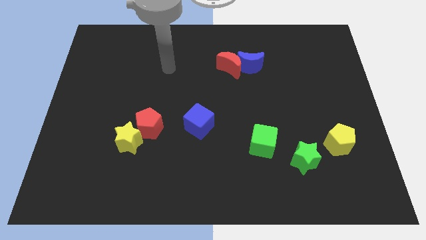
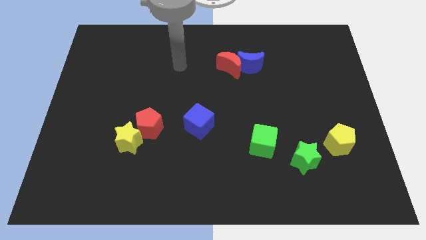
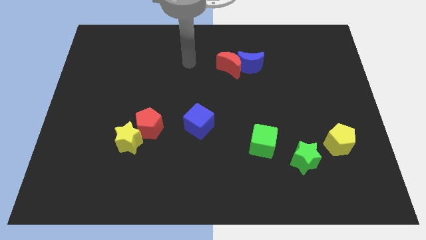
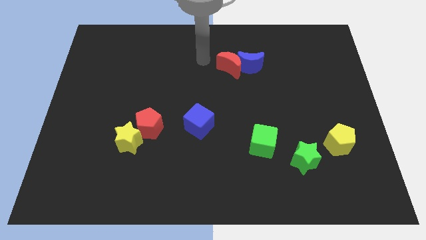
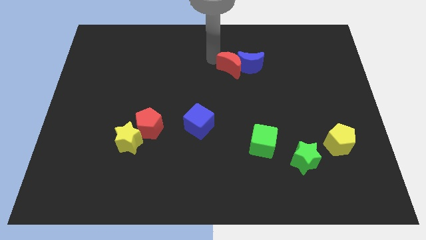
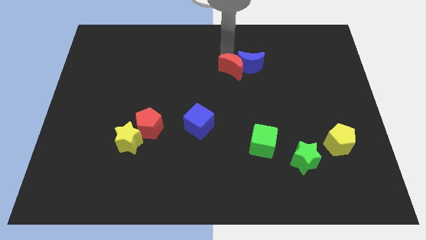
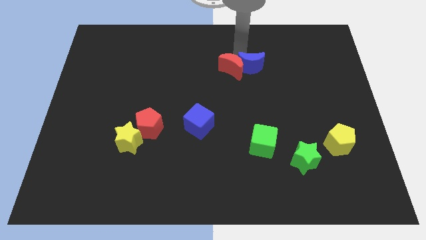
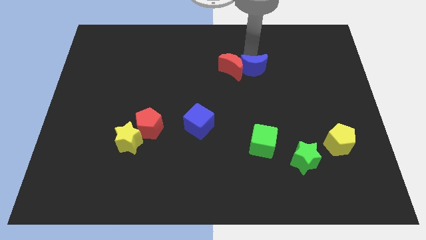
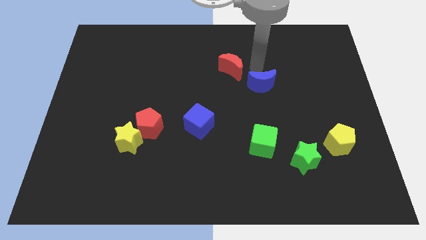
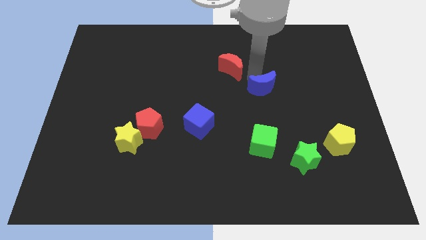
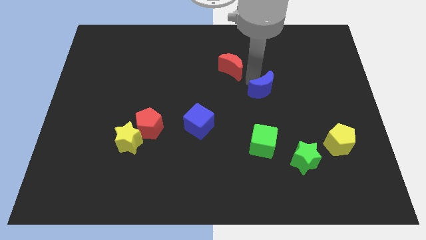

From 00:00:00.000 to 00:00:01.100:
move the red moon away from the blue moon

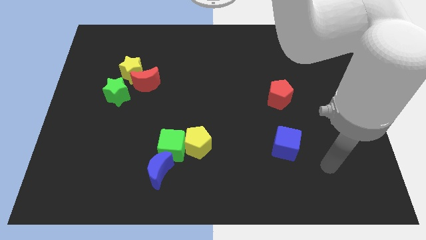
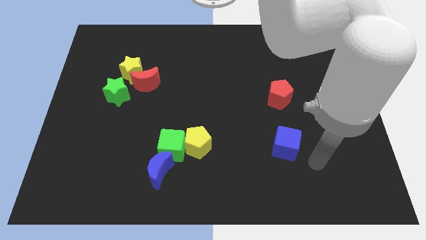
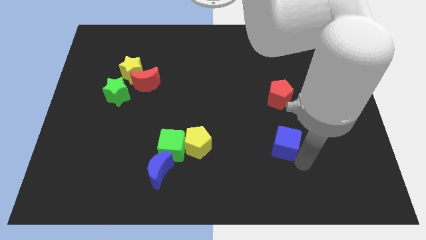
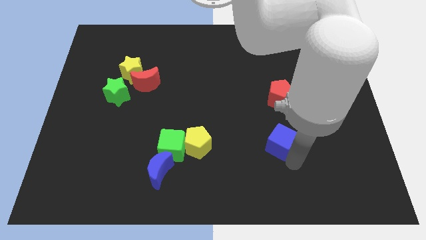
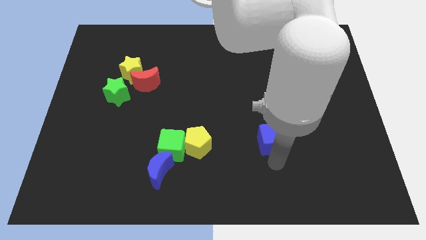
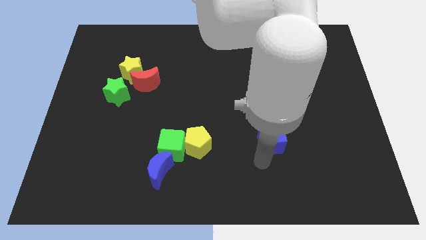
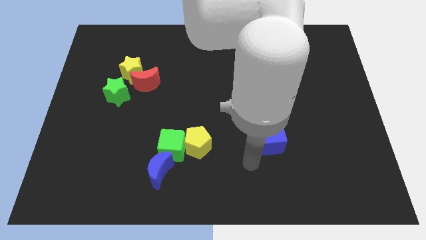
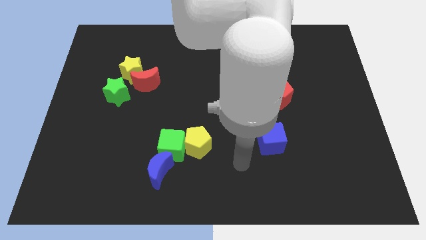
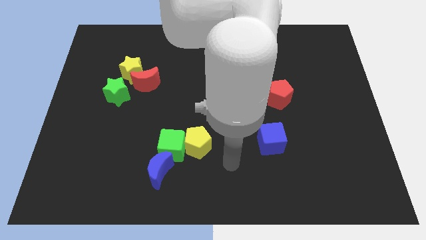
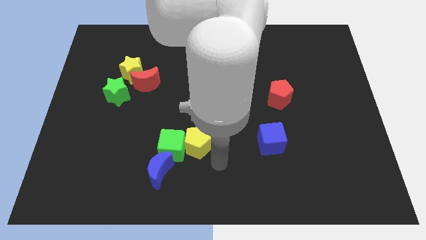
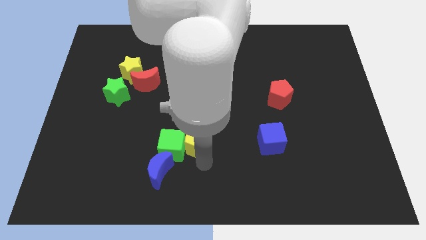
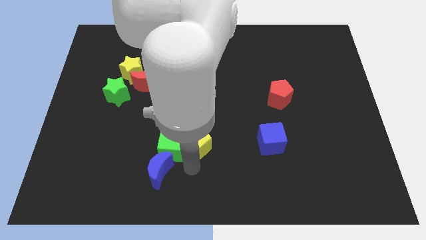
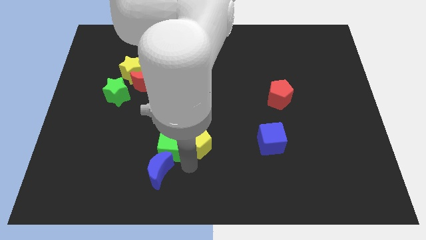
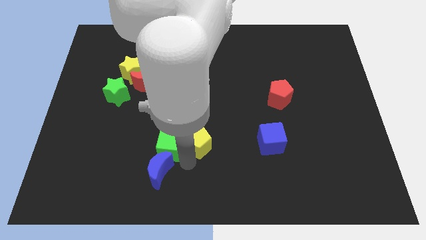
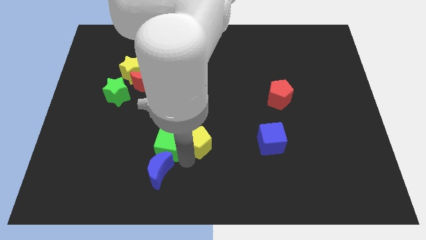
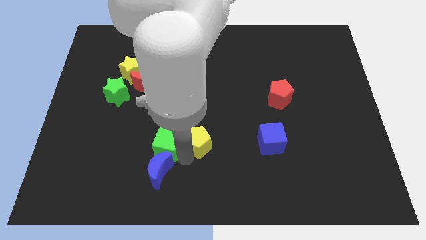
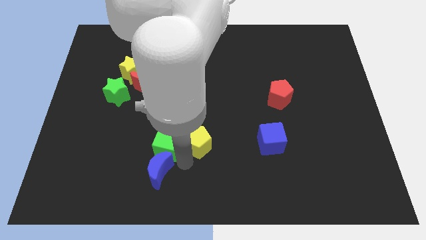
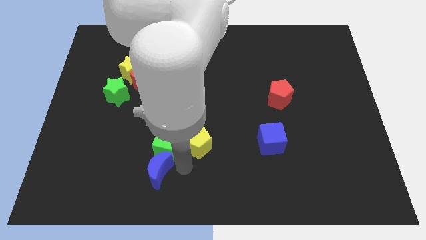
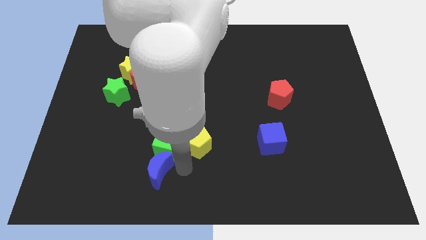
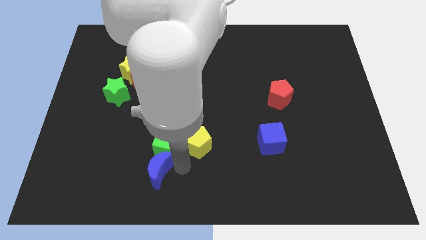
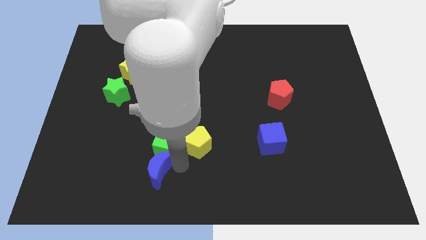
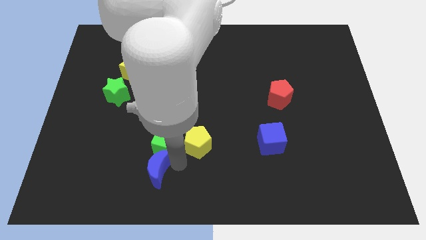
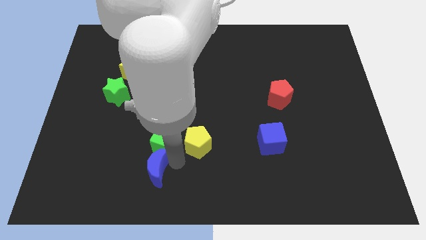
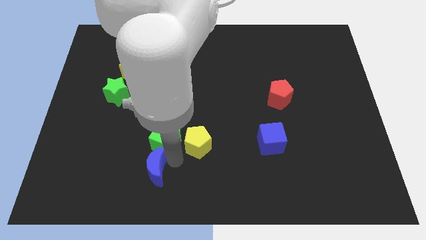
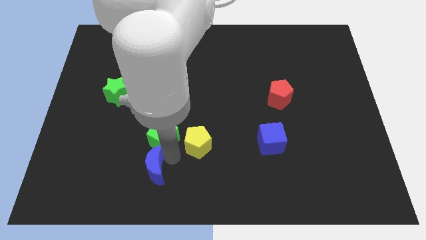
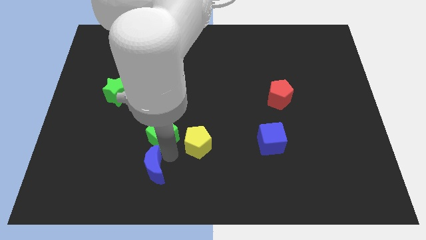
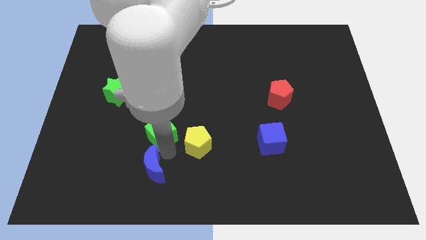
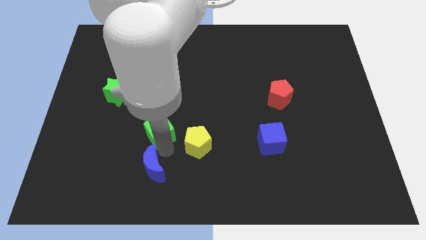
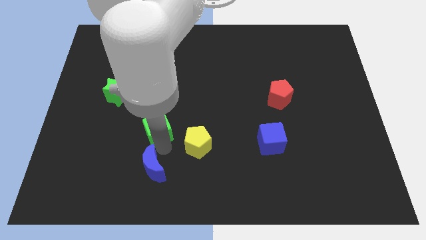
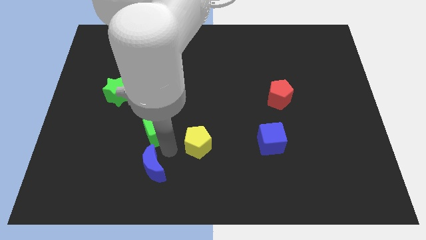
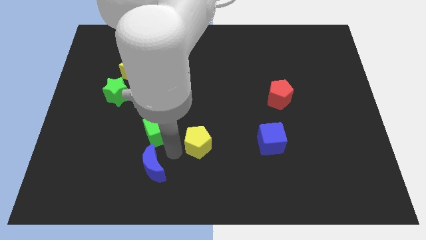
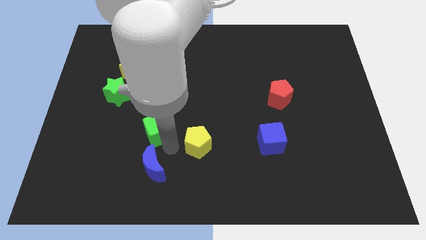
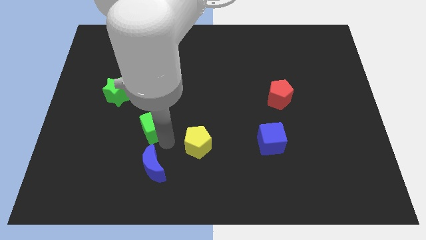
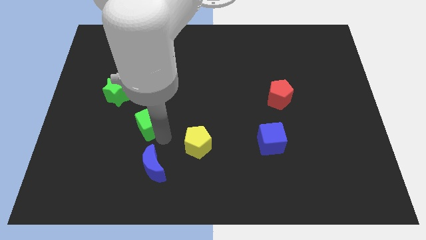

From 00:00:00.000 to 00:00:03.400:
separate the green cube from the yellow pentagon and blue moon

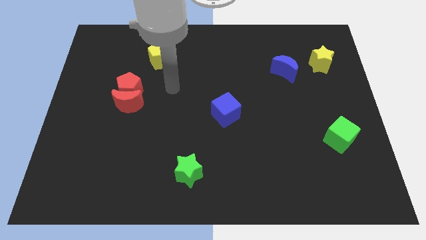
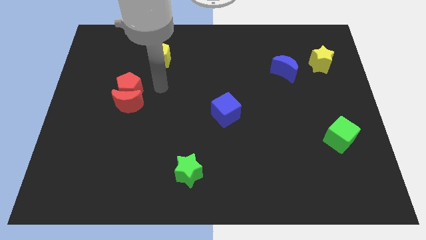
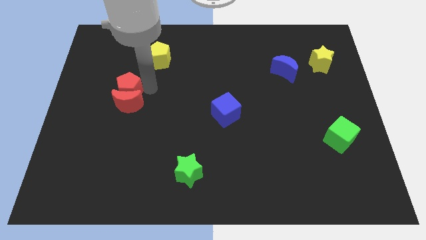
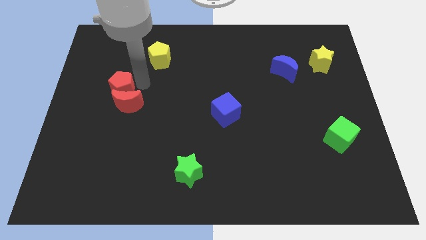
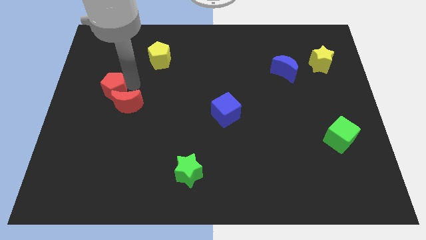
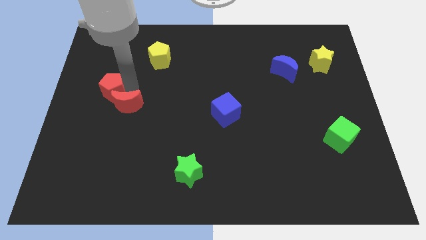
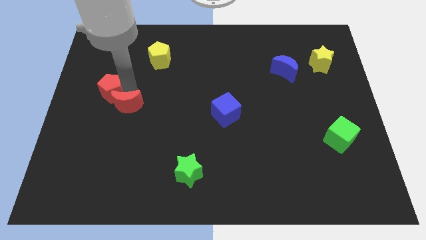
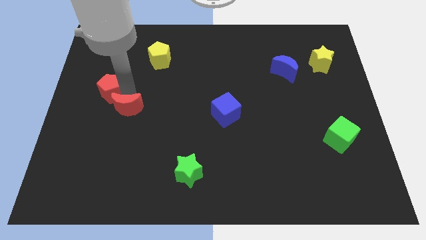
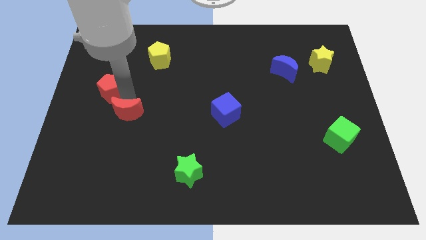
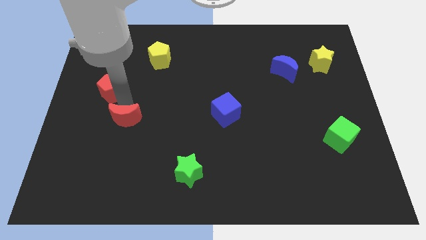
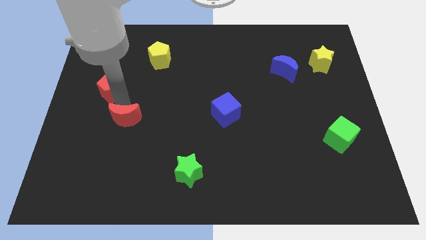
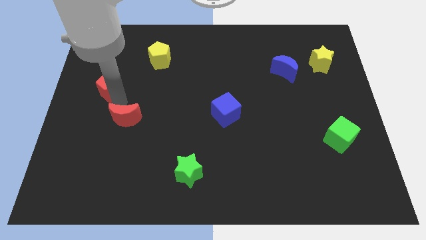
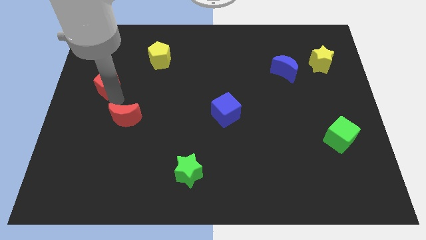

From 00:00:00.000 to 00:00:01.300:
move the red moon away from the red pentagon

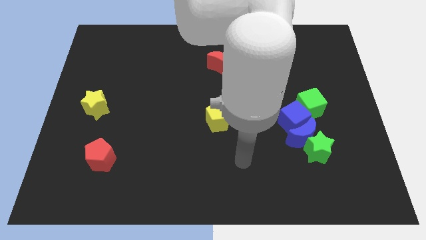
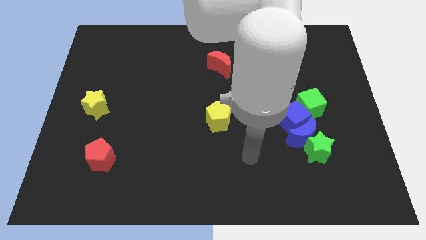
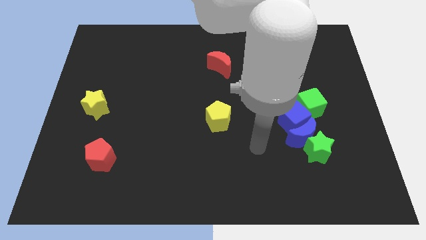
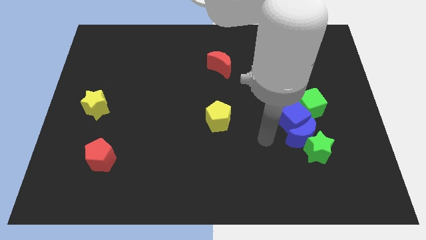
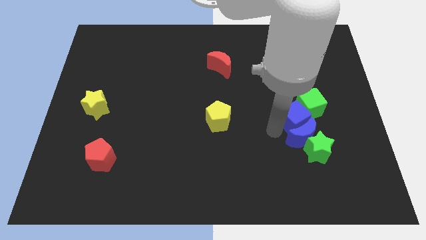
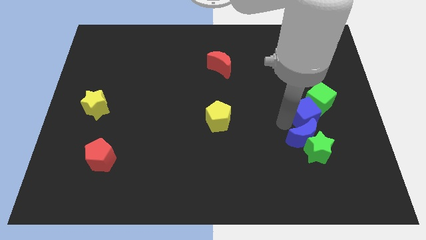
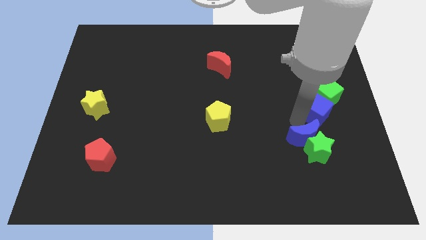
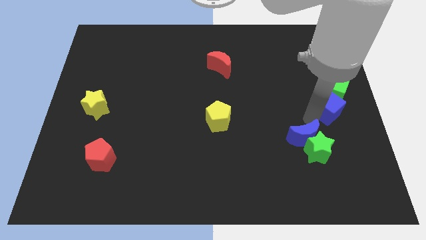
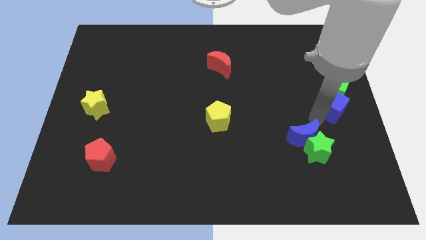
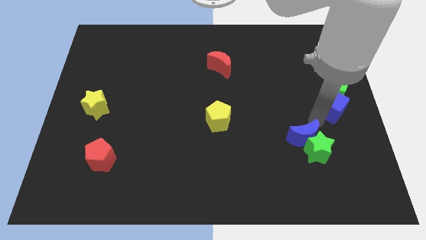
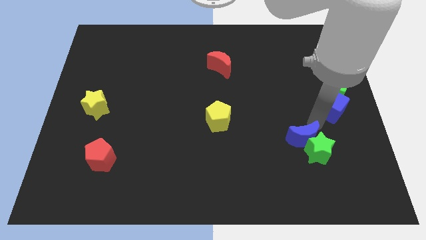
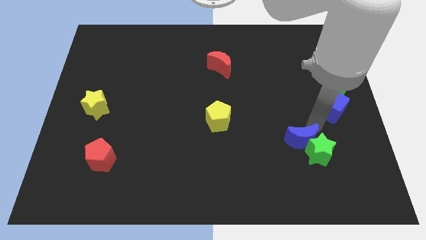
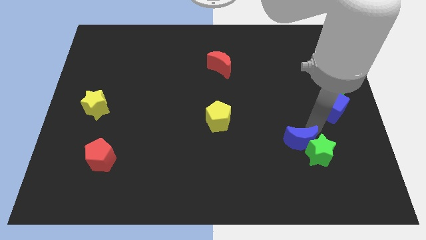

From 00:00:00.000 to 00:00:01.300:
pull the blue moon apart from the green star, blue cube, and green cube

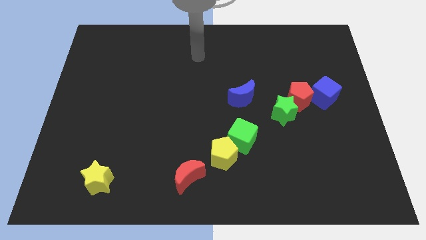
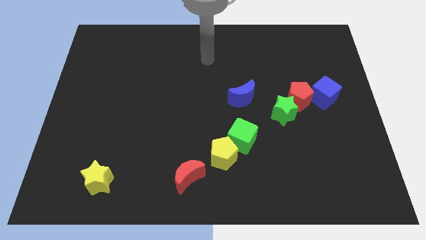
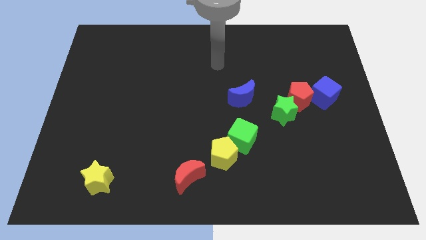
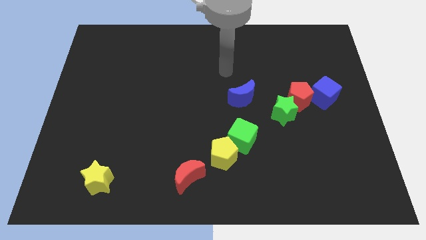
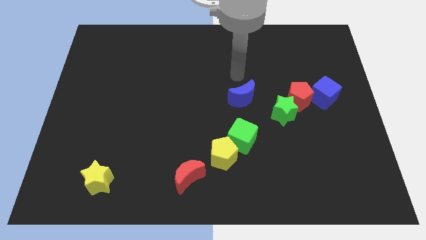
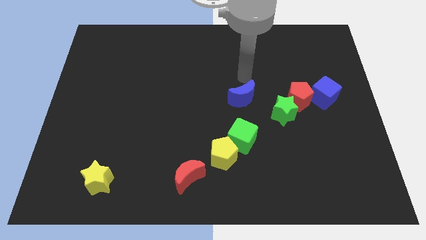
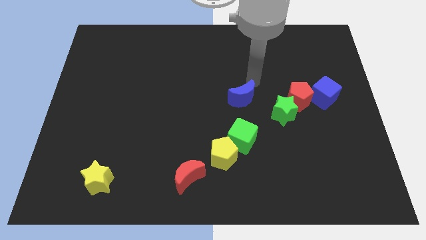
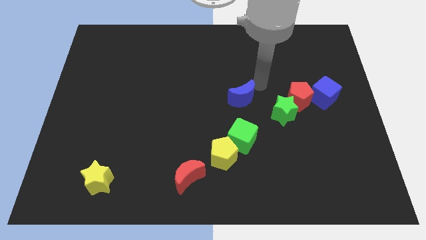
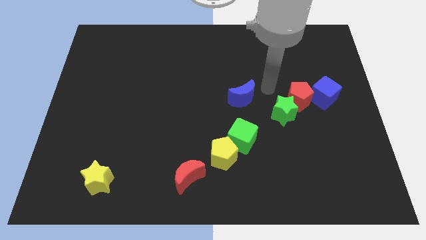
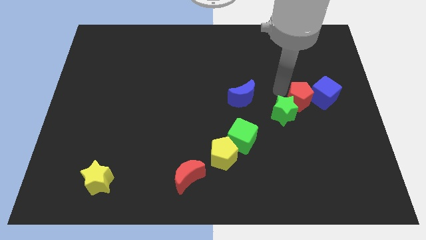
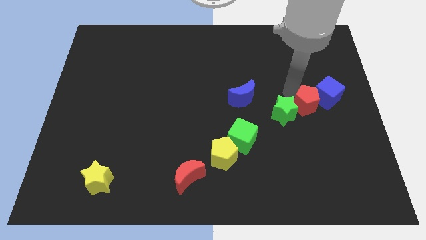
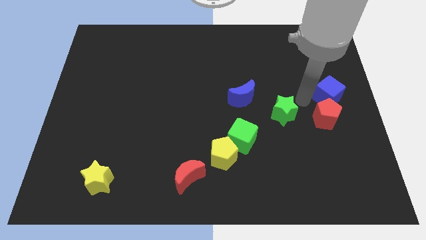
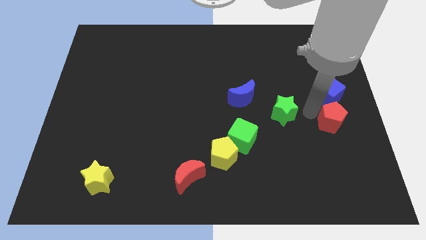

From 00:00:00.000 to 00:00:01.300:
pull the green star apart from the red pentagon

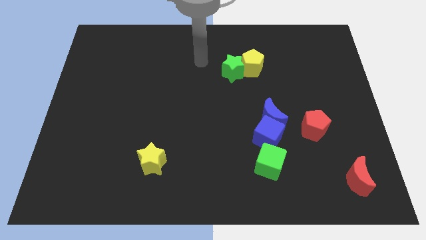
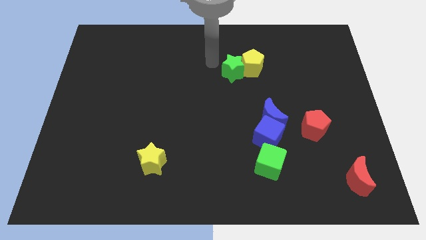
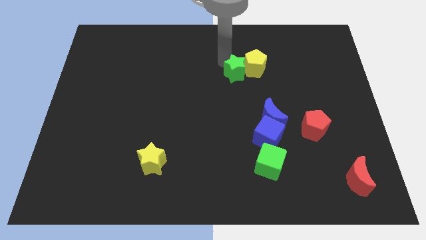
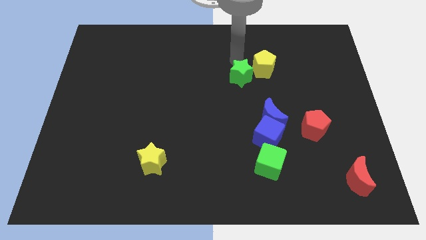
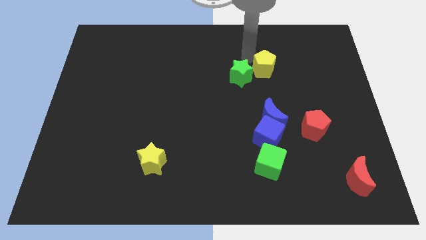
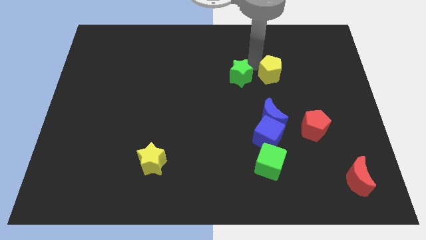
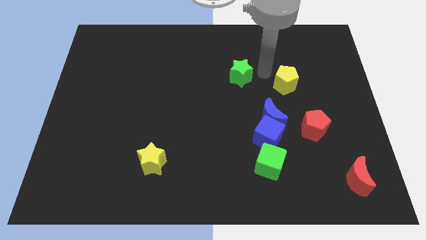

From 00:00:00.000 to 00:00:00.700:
separate the green star from the yellow pentagon
